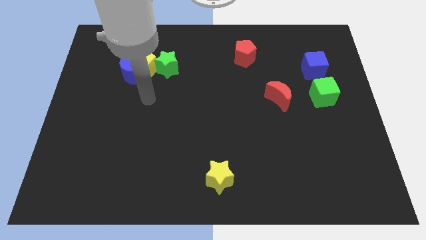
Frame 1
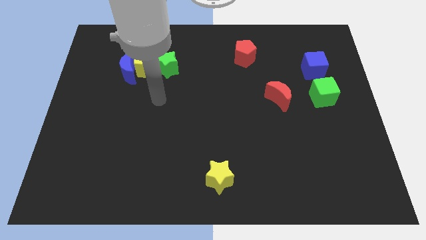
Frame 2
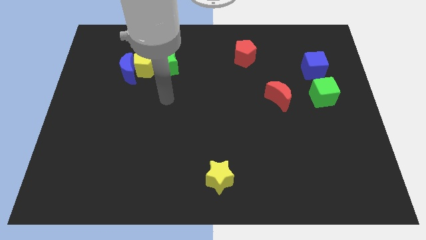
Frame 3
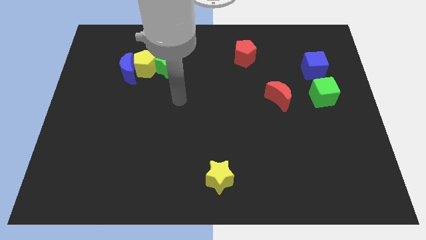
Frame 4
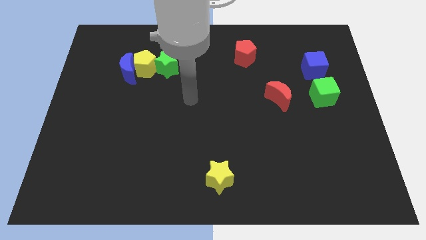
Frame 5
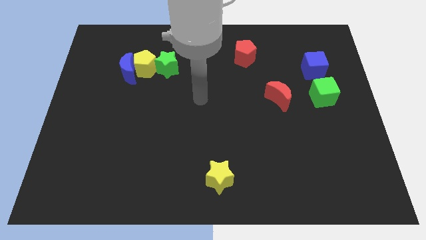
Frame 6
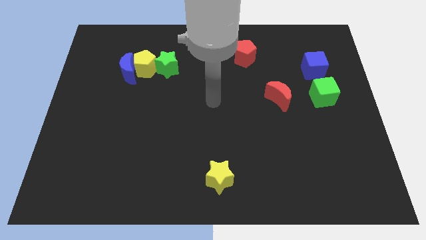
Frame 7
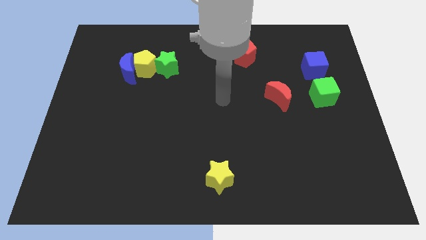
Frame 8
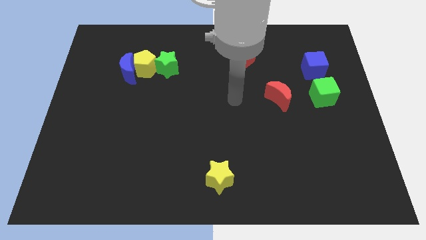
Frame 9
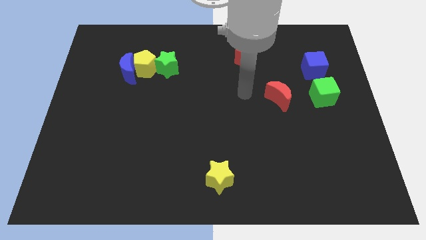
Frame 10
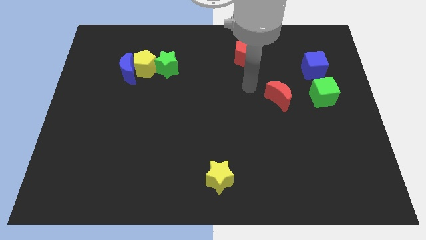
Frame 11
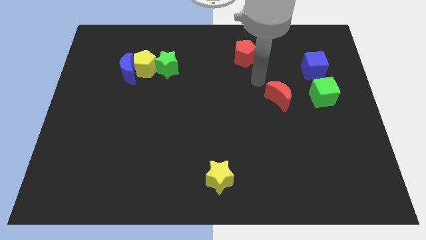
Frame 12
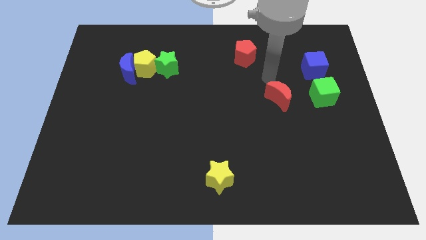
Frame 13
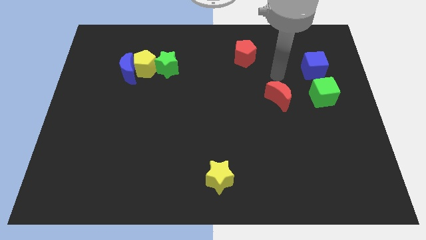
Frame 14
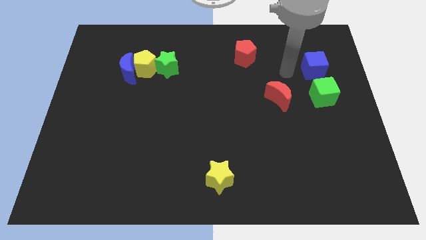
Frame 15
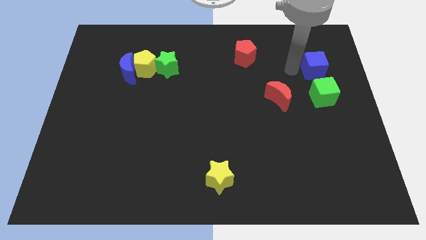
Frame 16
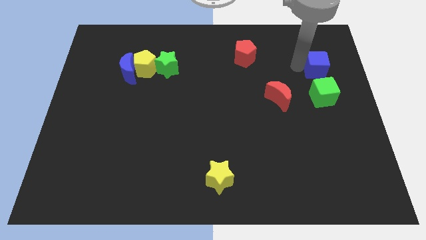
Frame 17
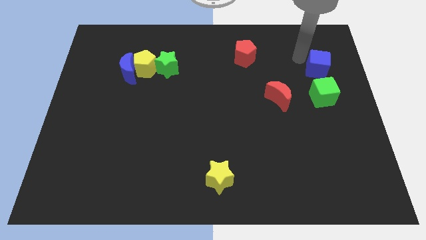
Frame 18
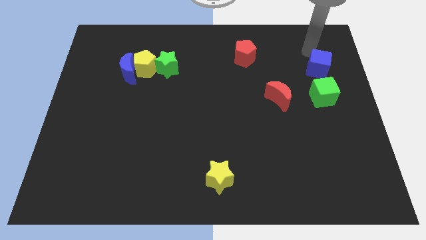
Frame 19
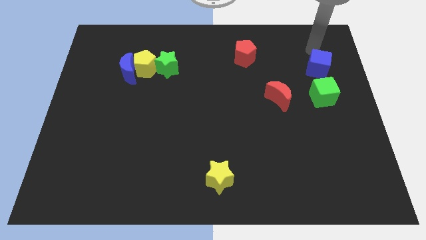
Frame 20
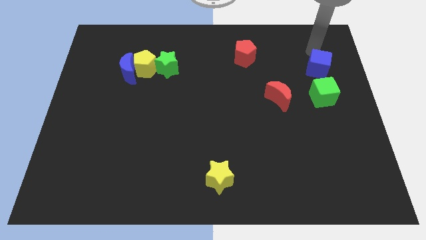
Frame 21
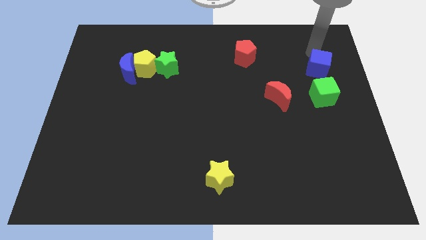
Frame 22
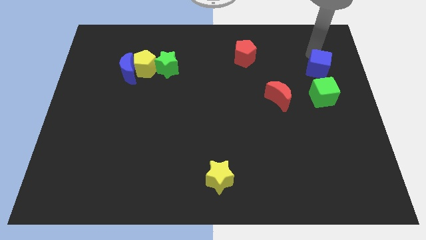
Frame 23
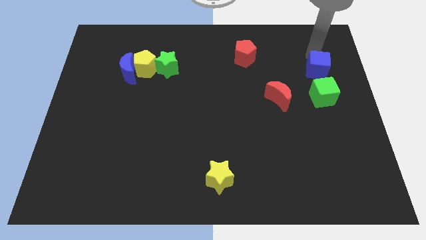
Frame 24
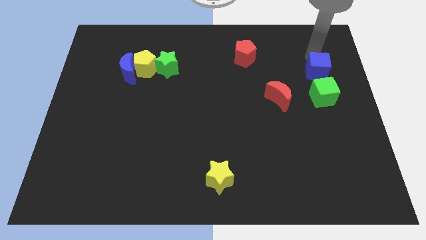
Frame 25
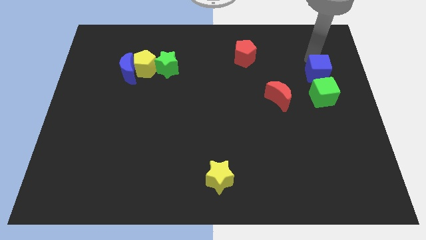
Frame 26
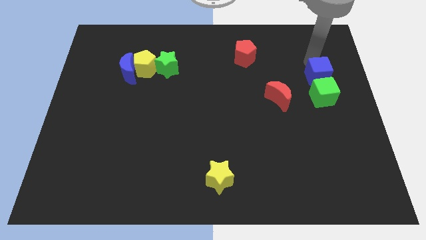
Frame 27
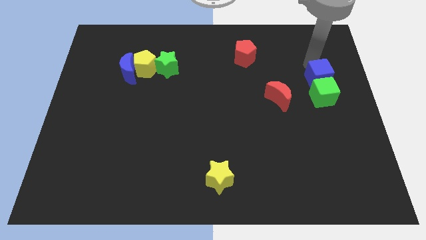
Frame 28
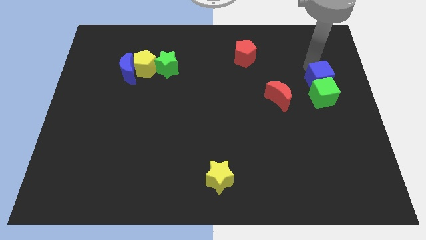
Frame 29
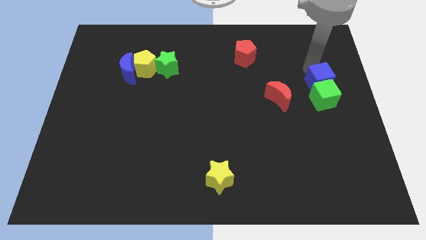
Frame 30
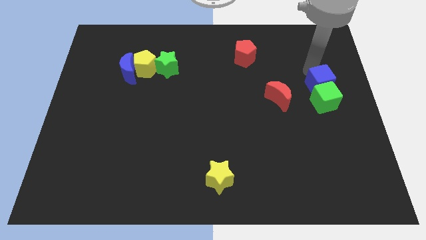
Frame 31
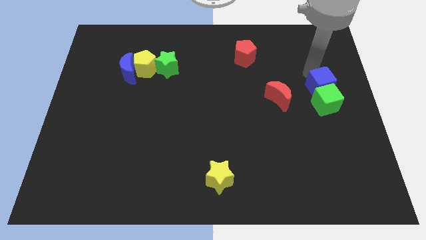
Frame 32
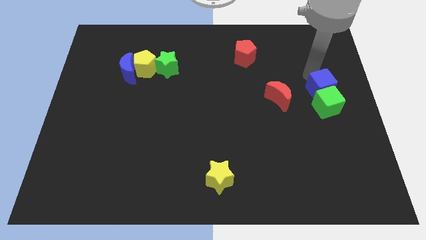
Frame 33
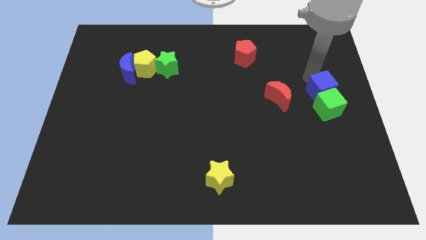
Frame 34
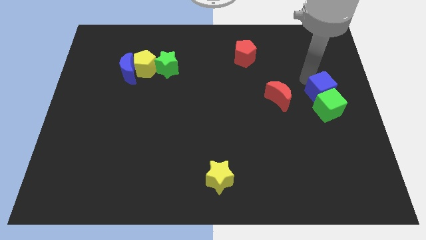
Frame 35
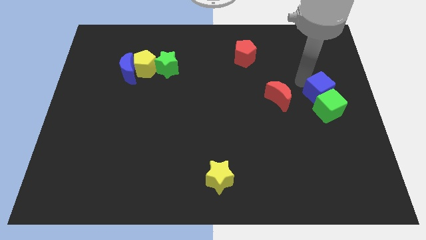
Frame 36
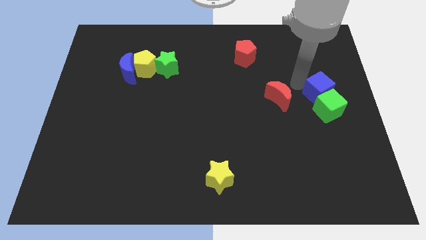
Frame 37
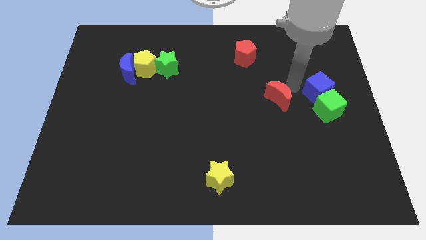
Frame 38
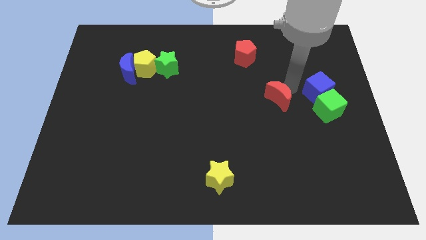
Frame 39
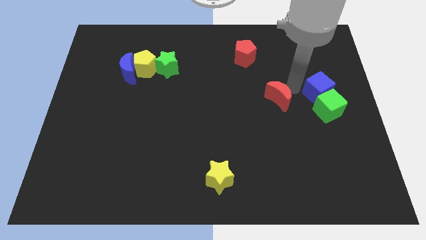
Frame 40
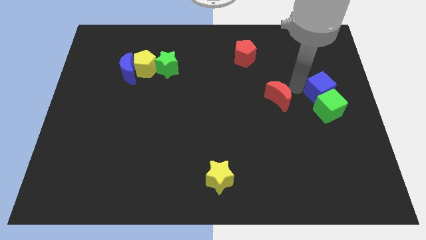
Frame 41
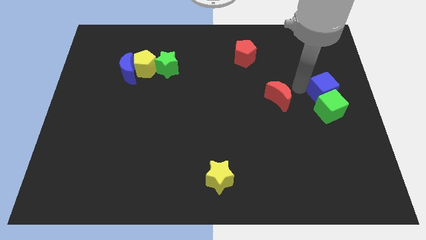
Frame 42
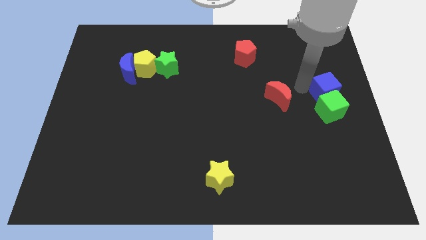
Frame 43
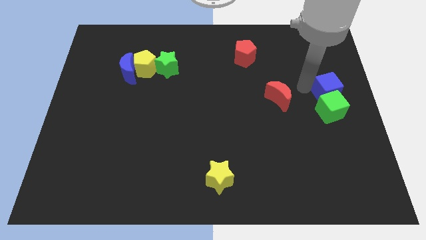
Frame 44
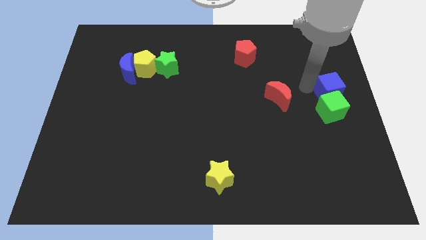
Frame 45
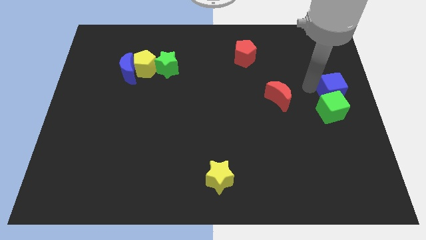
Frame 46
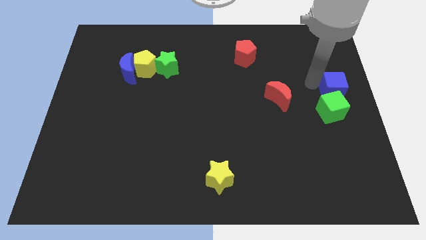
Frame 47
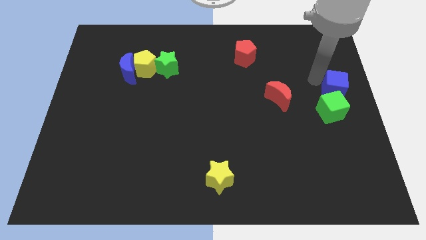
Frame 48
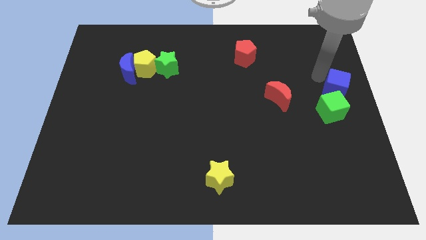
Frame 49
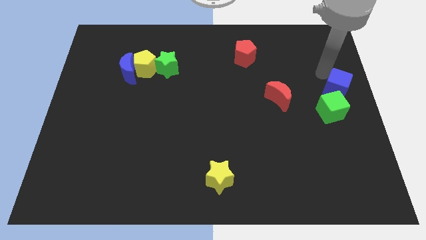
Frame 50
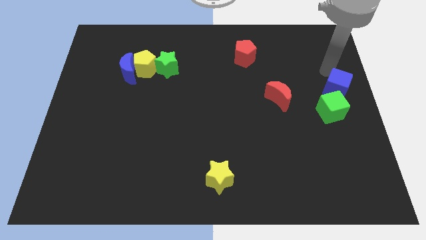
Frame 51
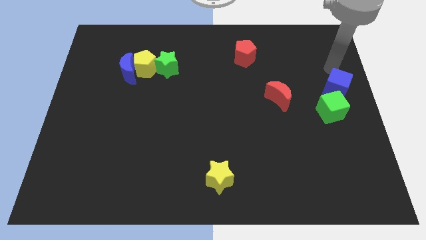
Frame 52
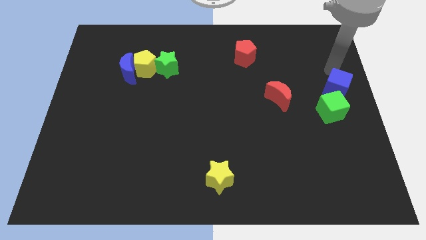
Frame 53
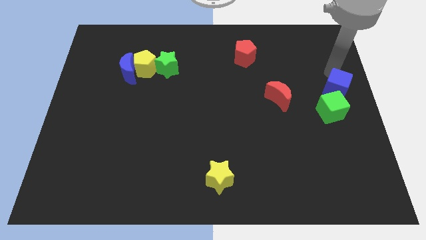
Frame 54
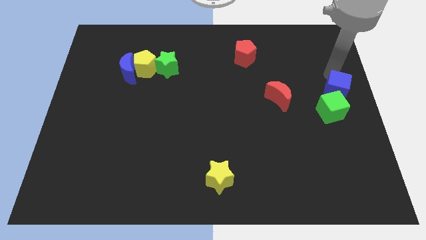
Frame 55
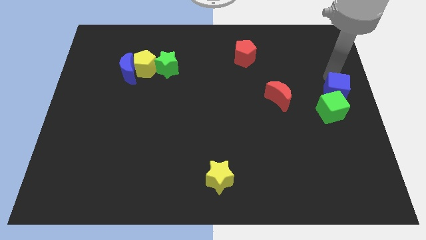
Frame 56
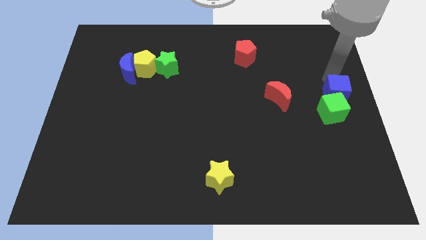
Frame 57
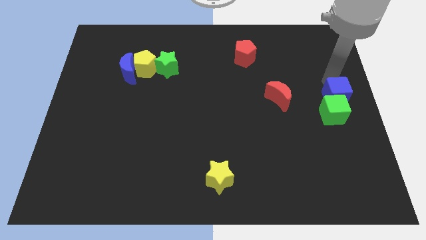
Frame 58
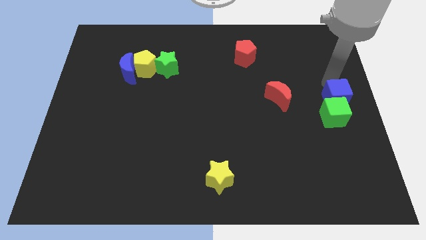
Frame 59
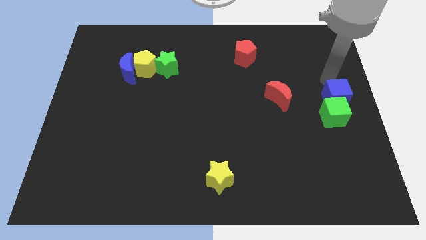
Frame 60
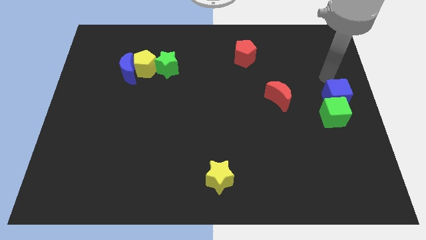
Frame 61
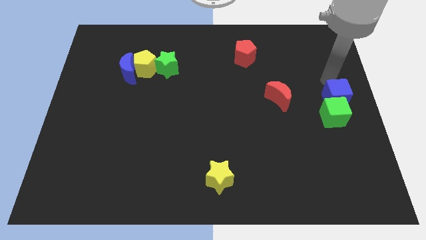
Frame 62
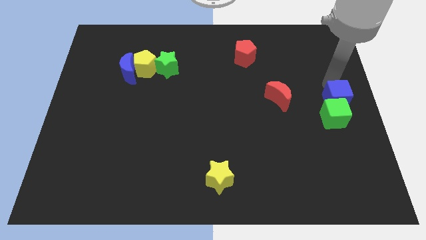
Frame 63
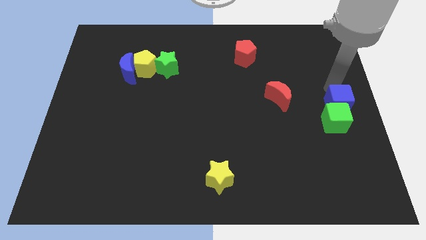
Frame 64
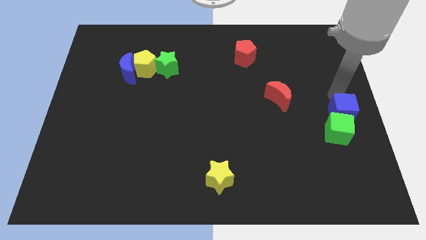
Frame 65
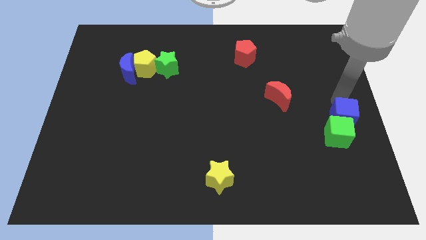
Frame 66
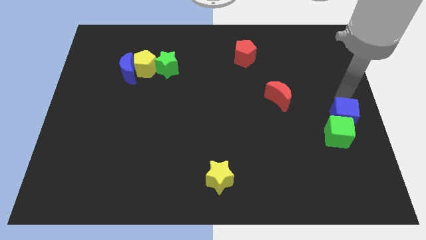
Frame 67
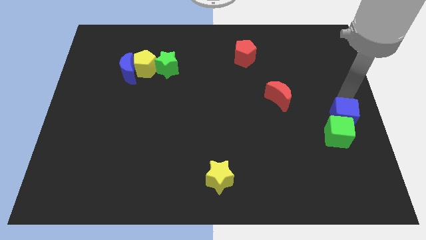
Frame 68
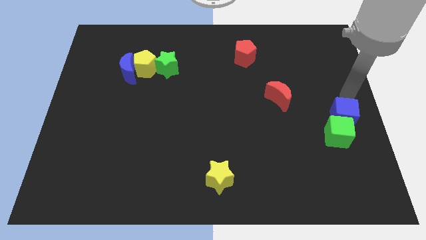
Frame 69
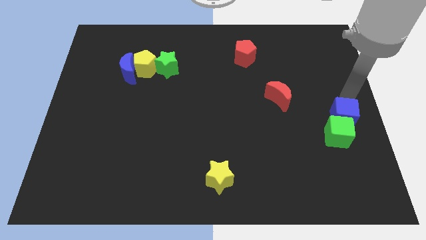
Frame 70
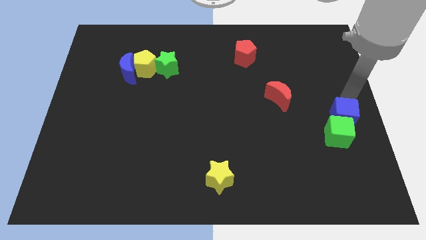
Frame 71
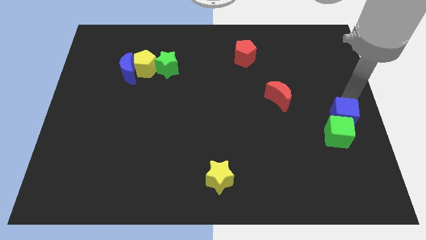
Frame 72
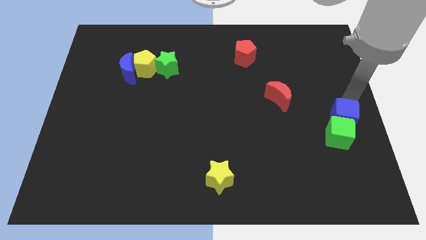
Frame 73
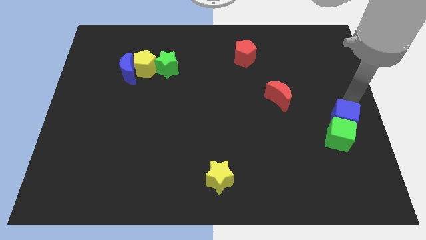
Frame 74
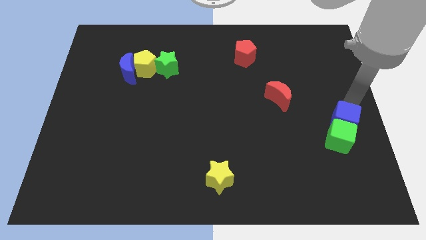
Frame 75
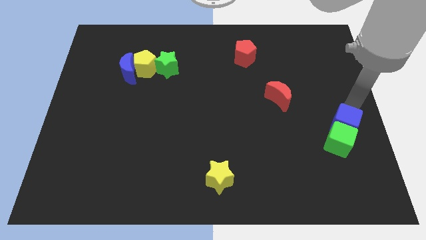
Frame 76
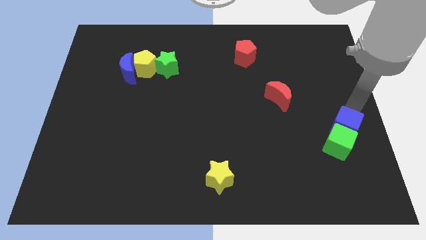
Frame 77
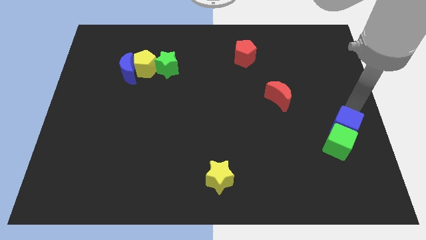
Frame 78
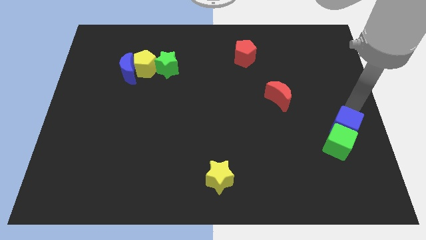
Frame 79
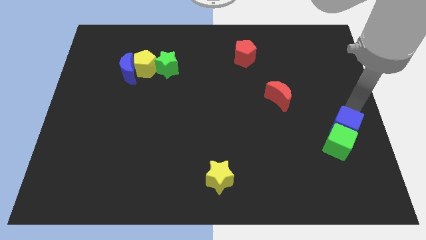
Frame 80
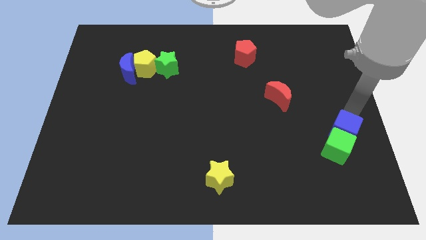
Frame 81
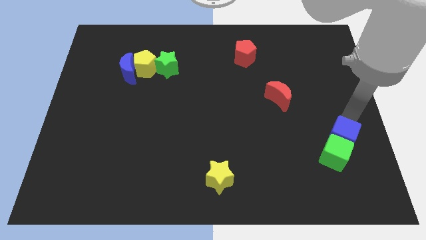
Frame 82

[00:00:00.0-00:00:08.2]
move the blue cube down

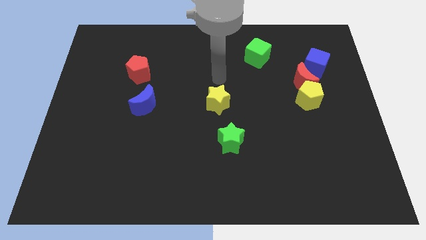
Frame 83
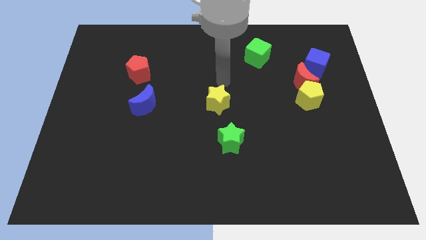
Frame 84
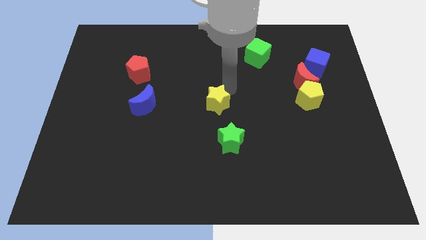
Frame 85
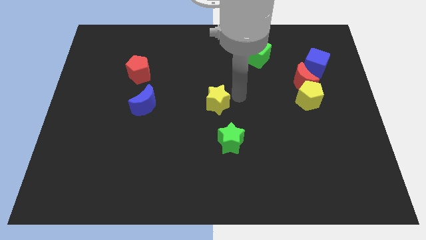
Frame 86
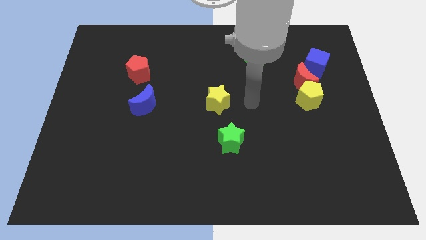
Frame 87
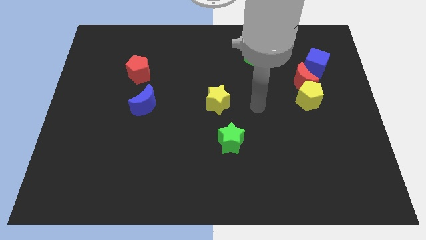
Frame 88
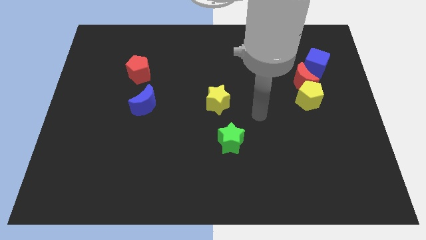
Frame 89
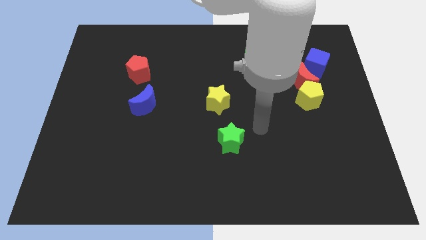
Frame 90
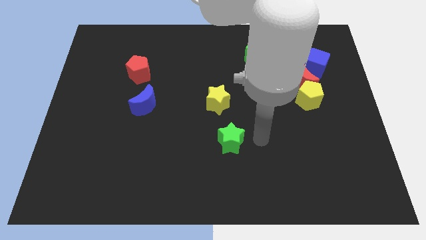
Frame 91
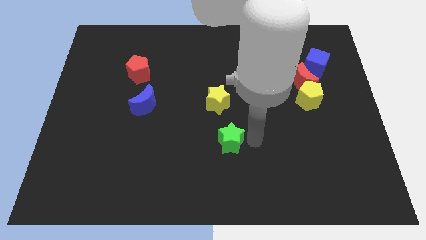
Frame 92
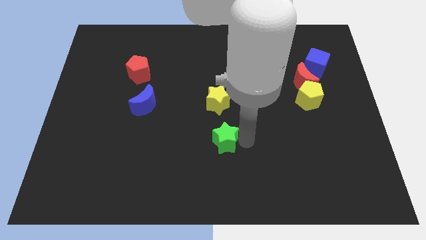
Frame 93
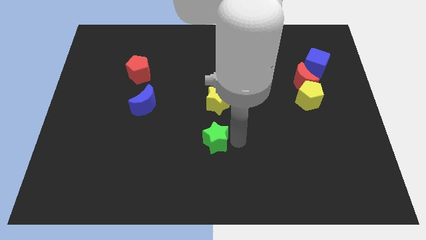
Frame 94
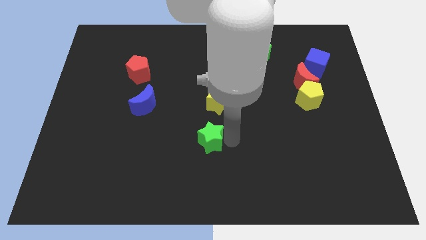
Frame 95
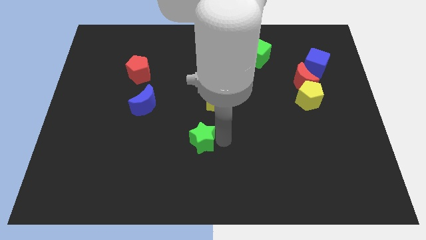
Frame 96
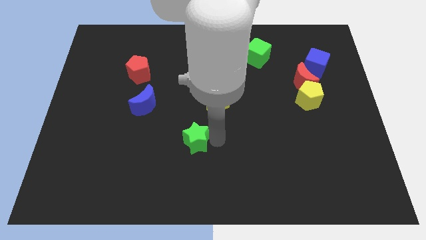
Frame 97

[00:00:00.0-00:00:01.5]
push the green star to the left a bit
